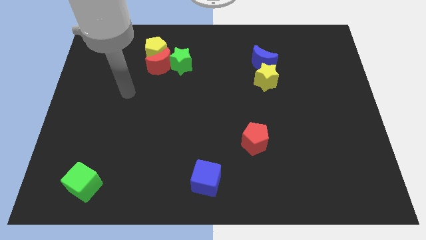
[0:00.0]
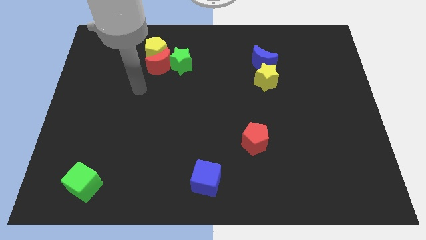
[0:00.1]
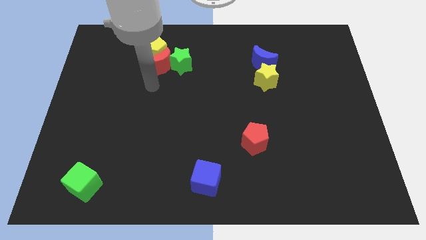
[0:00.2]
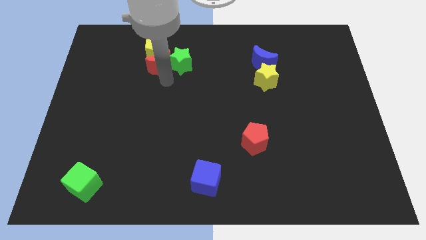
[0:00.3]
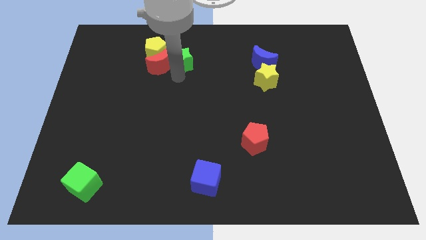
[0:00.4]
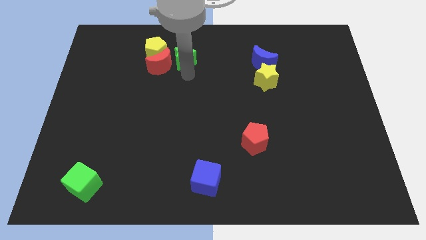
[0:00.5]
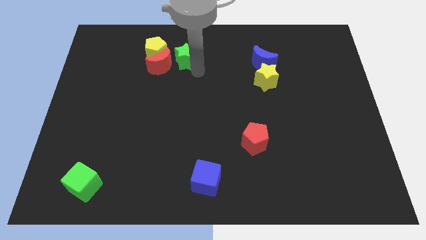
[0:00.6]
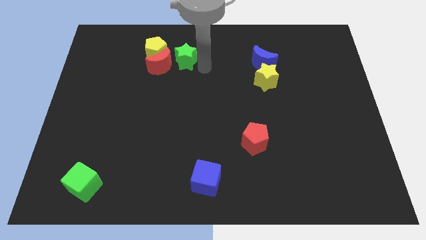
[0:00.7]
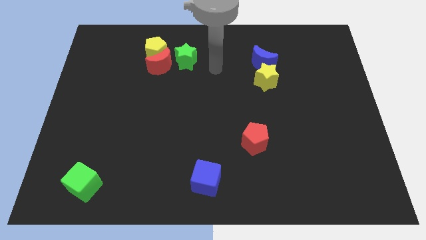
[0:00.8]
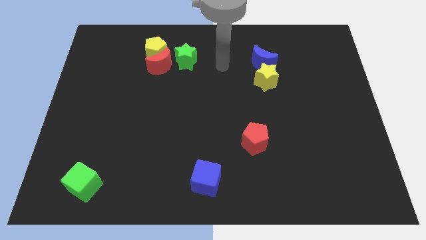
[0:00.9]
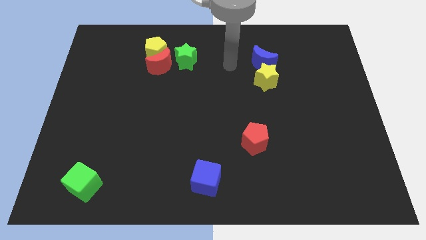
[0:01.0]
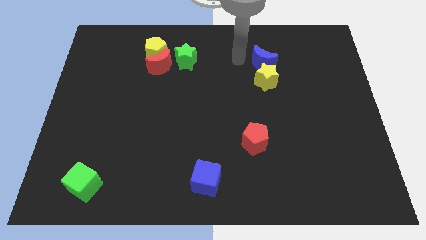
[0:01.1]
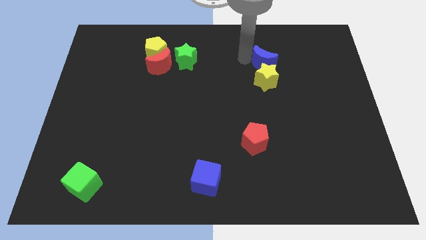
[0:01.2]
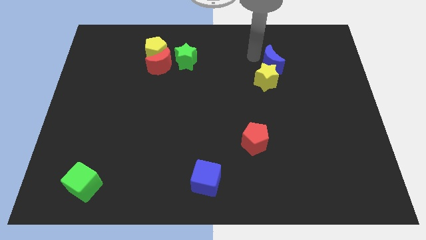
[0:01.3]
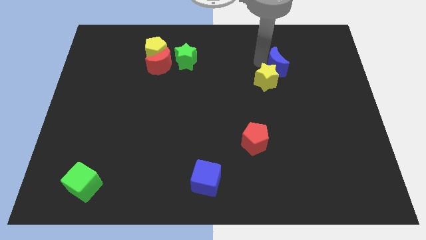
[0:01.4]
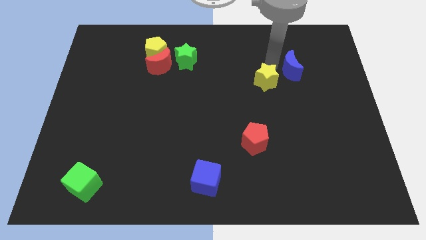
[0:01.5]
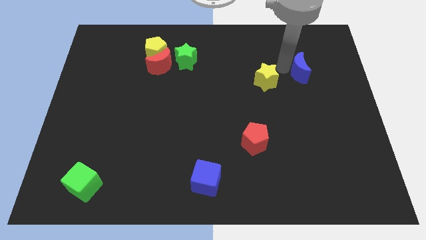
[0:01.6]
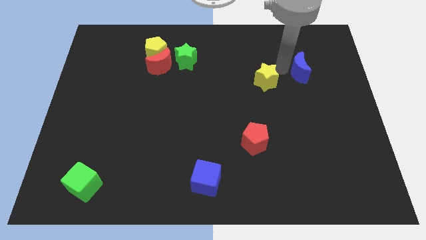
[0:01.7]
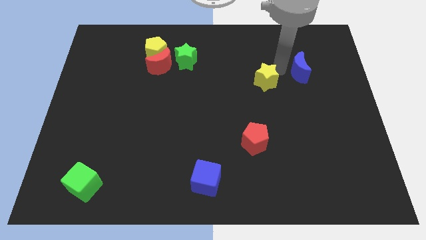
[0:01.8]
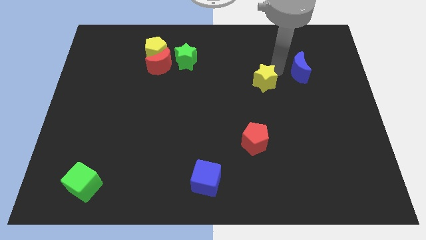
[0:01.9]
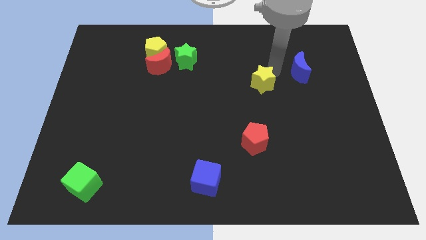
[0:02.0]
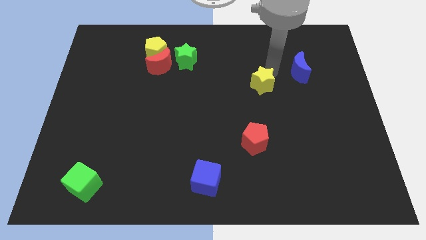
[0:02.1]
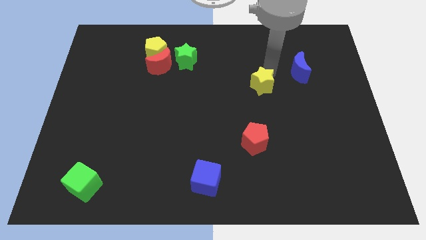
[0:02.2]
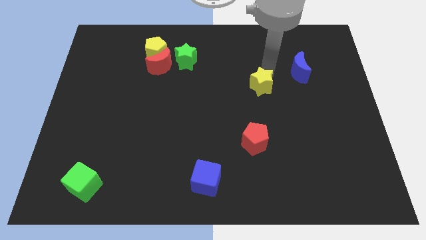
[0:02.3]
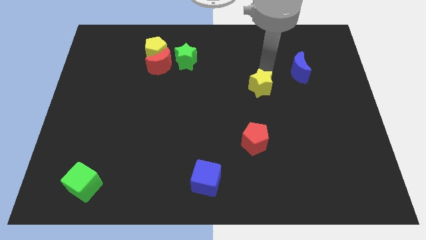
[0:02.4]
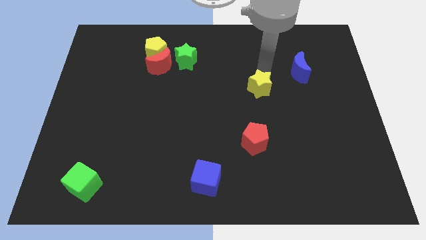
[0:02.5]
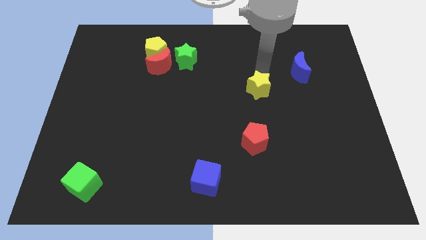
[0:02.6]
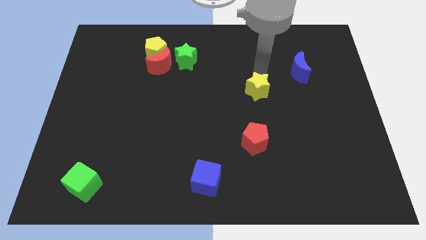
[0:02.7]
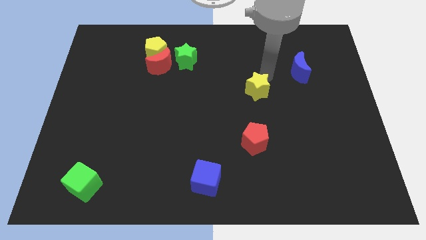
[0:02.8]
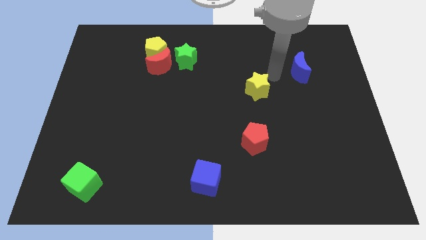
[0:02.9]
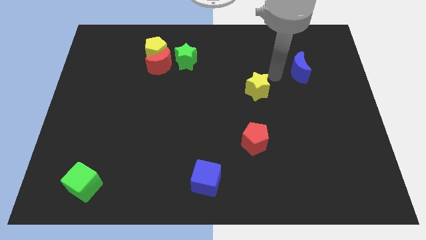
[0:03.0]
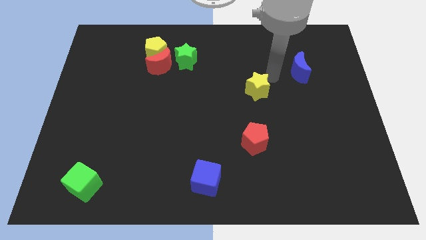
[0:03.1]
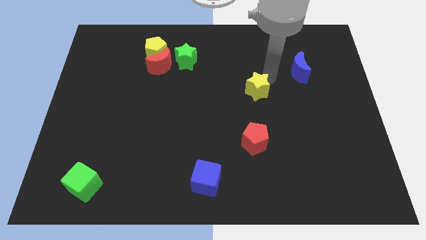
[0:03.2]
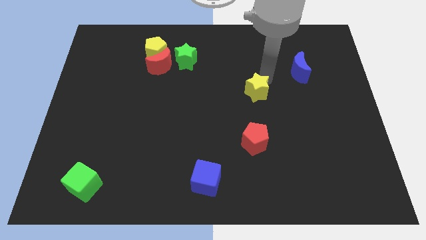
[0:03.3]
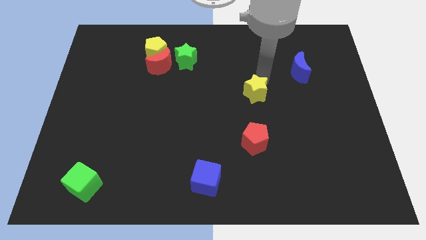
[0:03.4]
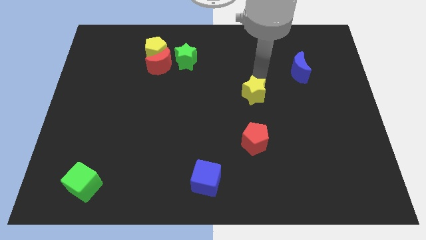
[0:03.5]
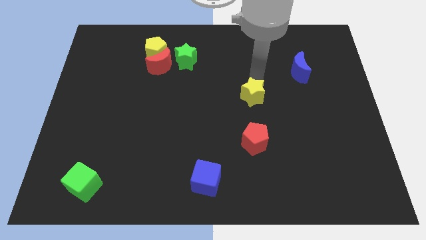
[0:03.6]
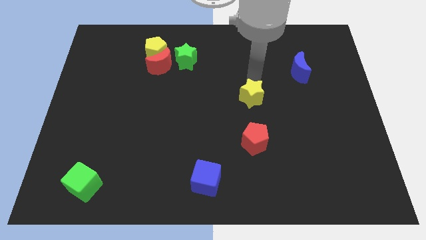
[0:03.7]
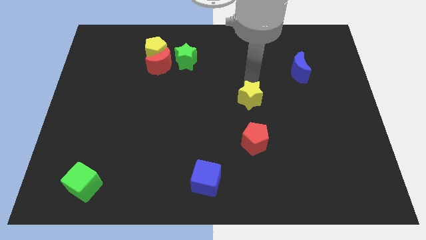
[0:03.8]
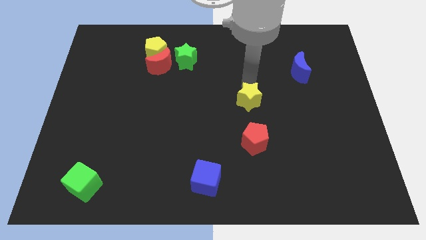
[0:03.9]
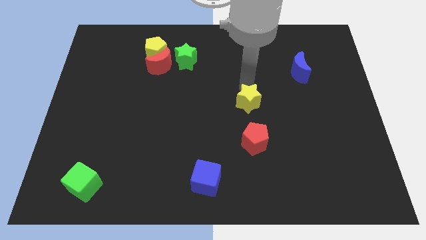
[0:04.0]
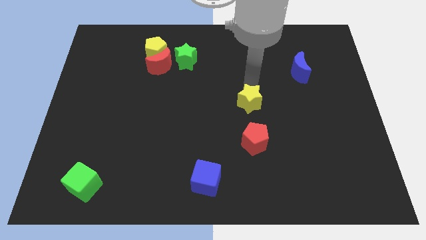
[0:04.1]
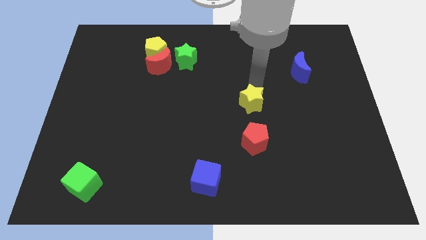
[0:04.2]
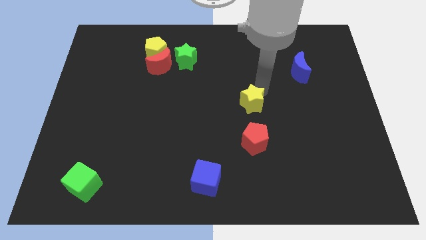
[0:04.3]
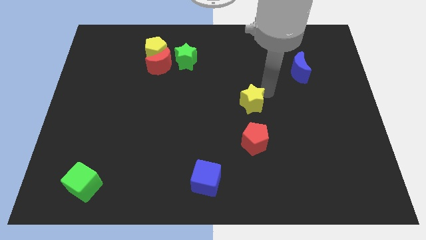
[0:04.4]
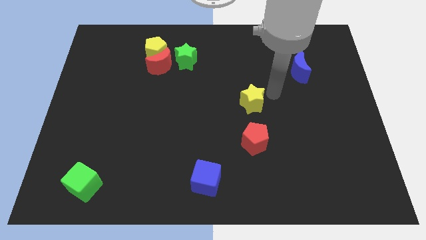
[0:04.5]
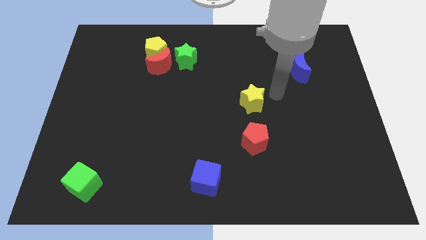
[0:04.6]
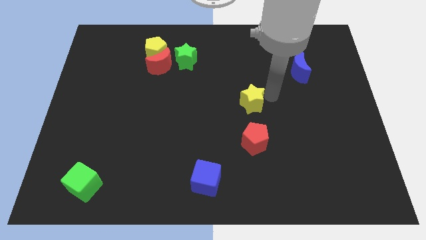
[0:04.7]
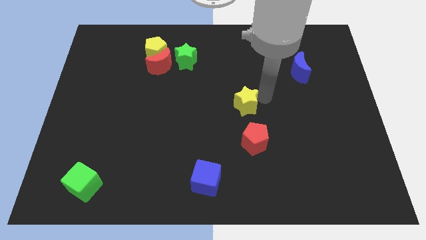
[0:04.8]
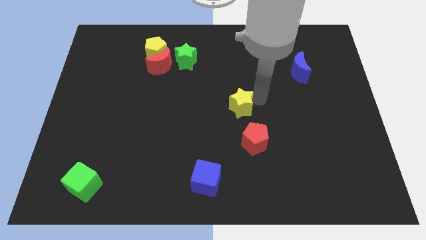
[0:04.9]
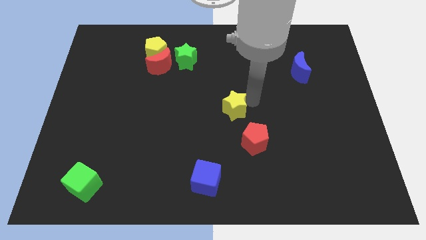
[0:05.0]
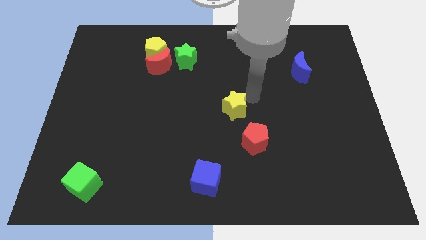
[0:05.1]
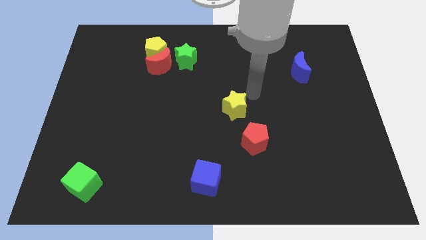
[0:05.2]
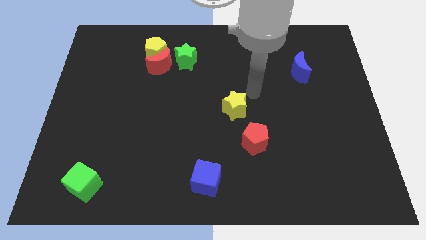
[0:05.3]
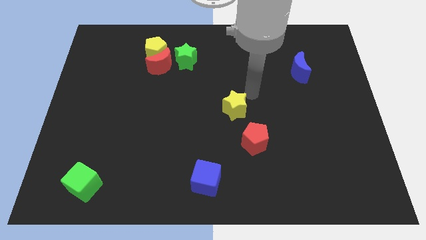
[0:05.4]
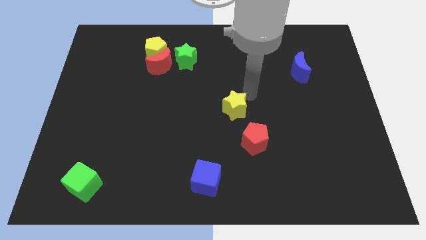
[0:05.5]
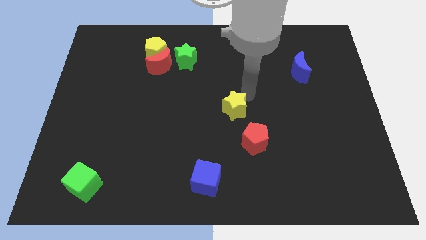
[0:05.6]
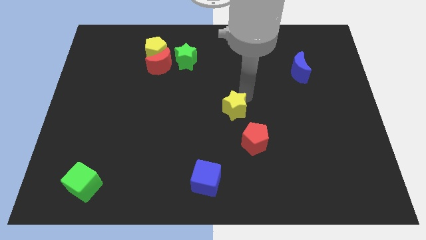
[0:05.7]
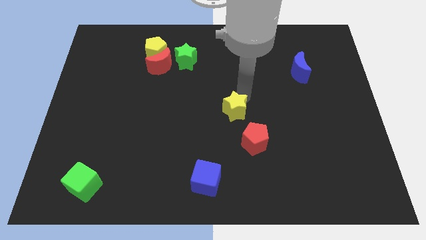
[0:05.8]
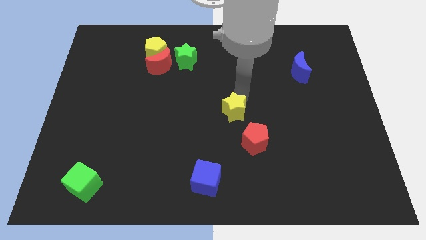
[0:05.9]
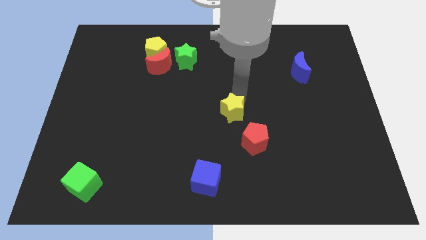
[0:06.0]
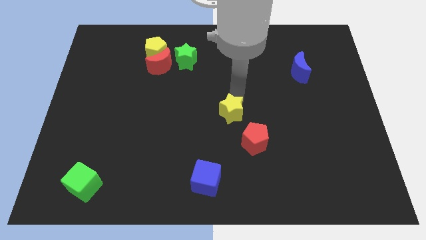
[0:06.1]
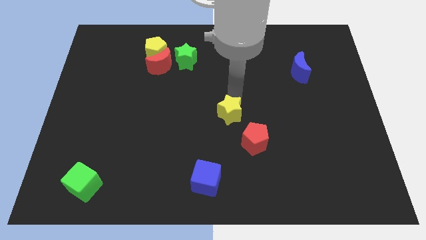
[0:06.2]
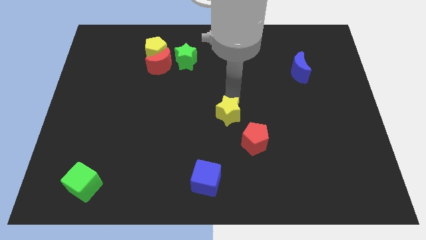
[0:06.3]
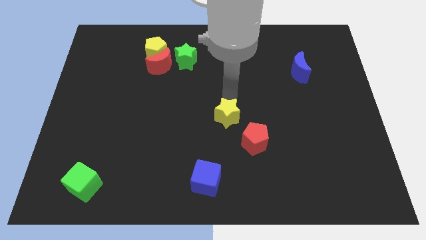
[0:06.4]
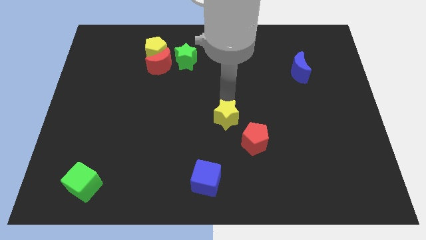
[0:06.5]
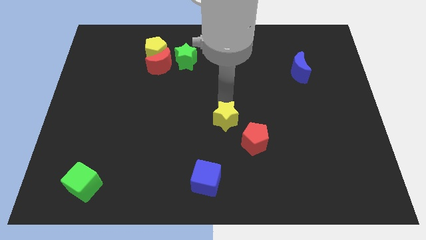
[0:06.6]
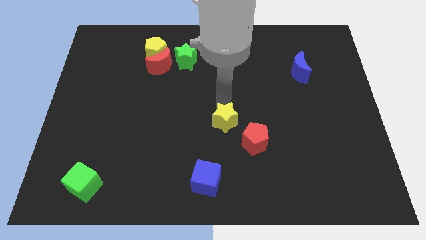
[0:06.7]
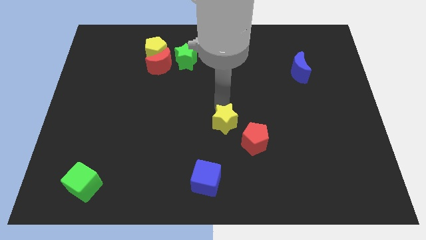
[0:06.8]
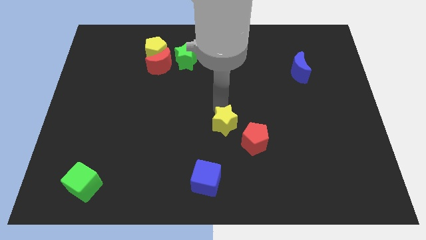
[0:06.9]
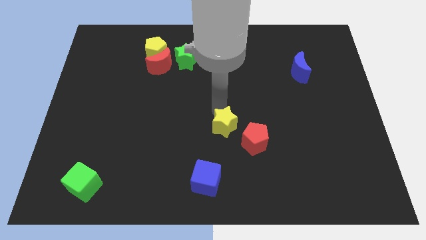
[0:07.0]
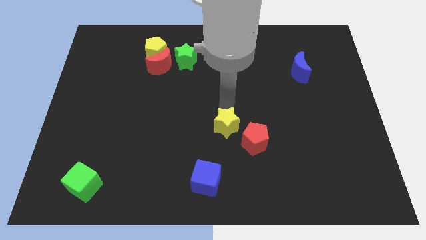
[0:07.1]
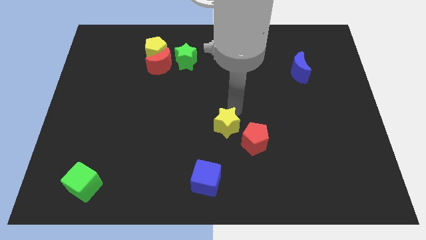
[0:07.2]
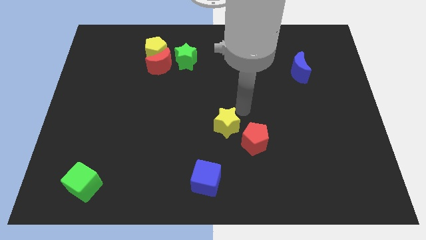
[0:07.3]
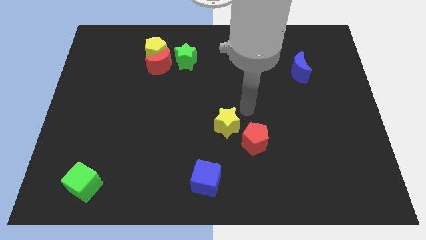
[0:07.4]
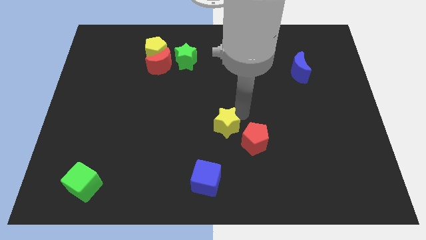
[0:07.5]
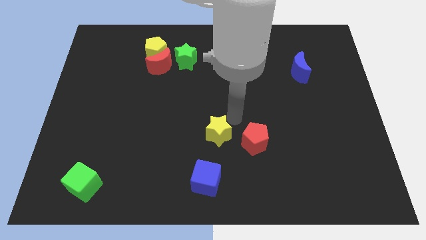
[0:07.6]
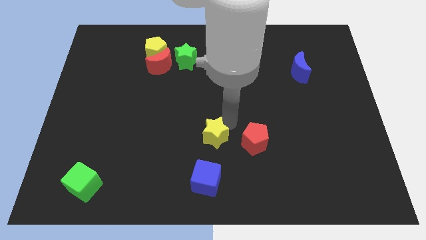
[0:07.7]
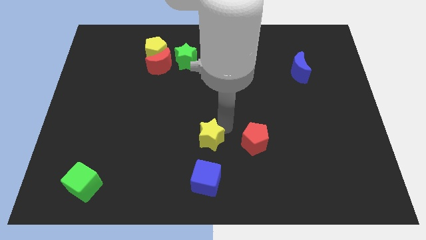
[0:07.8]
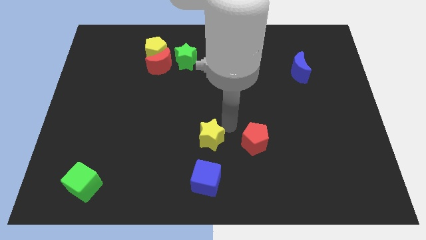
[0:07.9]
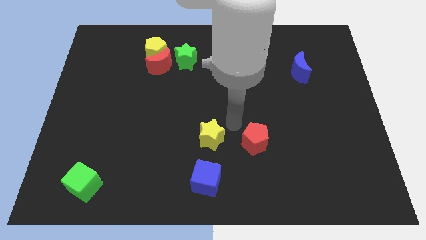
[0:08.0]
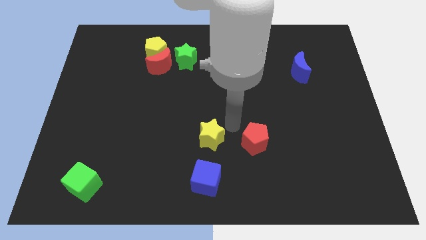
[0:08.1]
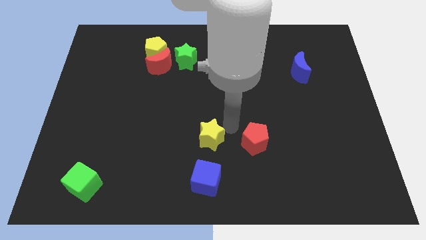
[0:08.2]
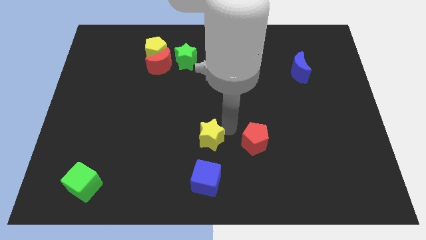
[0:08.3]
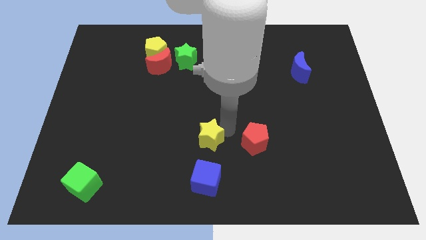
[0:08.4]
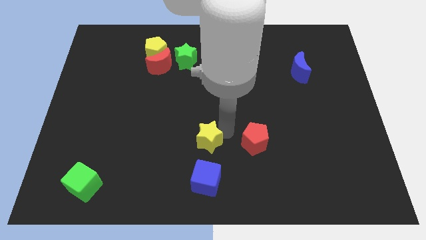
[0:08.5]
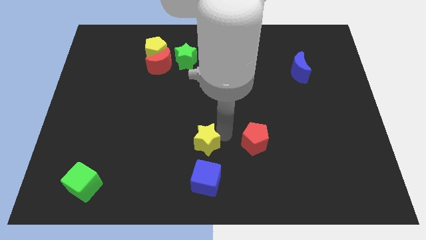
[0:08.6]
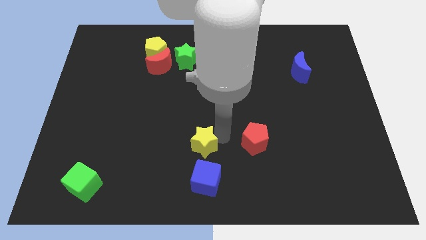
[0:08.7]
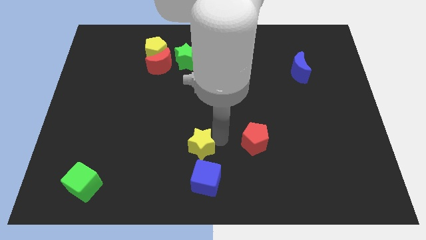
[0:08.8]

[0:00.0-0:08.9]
push the yellow star to the top left of the blue cube
